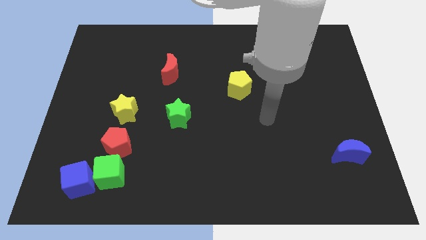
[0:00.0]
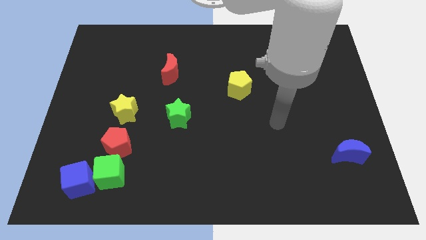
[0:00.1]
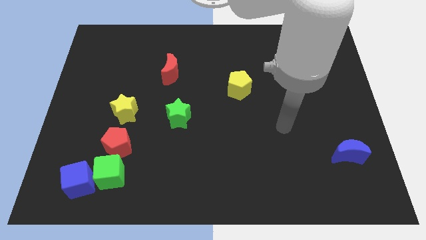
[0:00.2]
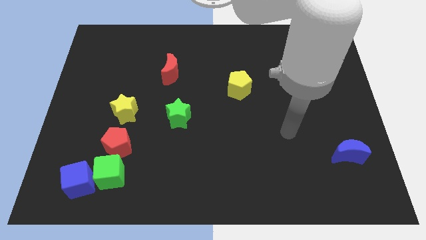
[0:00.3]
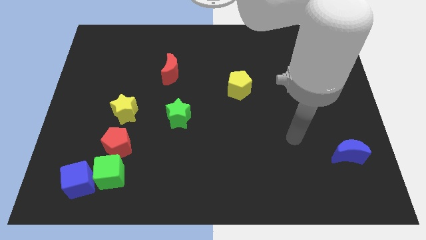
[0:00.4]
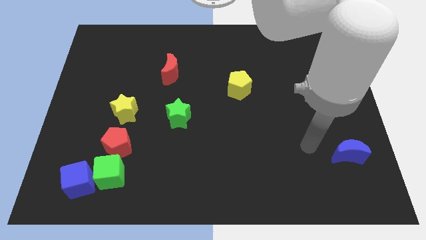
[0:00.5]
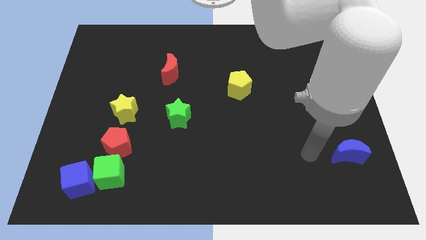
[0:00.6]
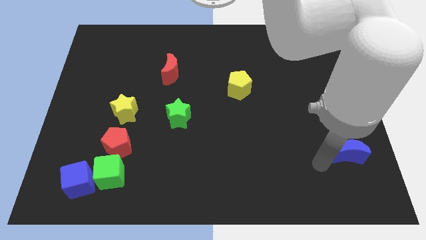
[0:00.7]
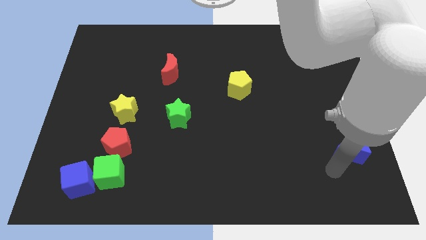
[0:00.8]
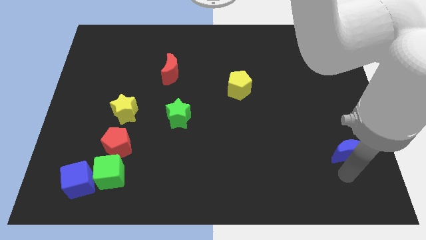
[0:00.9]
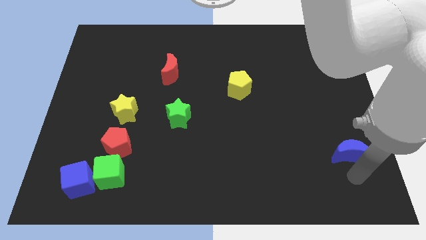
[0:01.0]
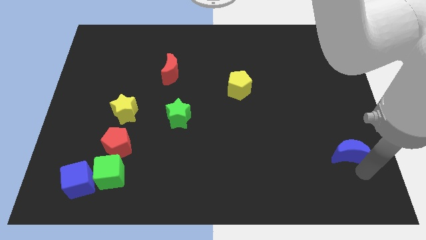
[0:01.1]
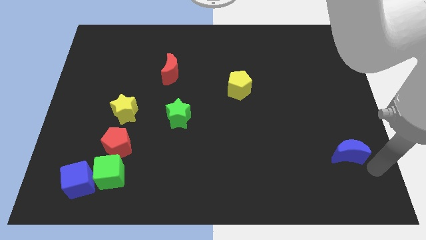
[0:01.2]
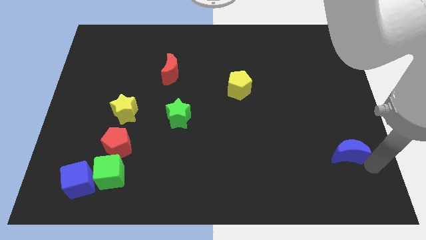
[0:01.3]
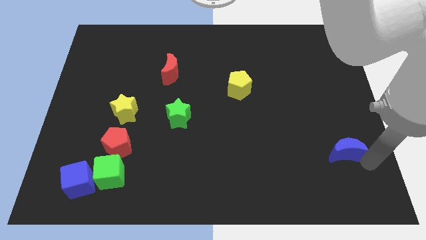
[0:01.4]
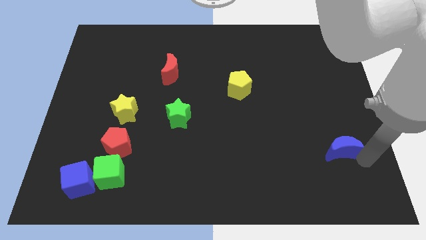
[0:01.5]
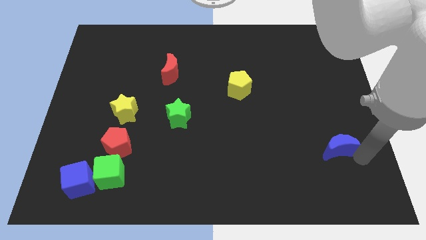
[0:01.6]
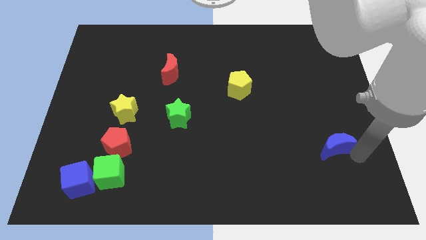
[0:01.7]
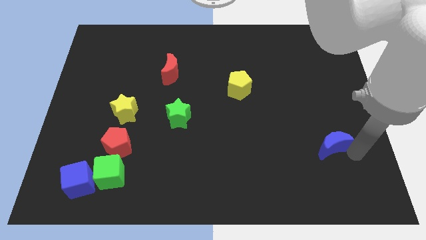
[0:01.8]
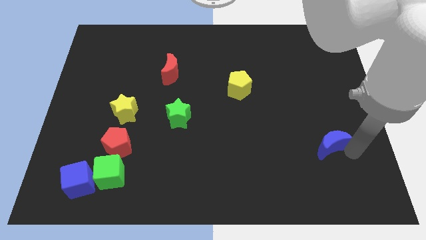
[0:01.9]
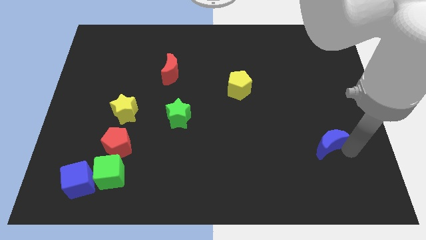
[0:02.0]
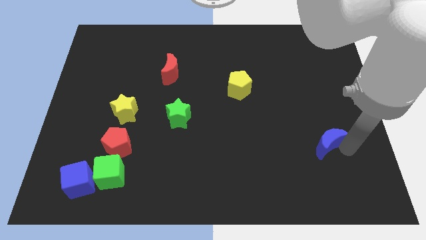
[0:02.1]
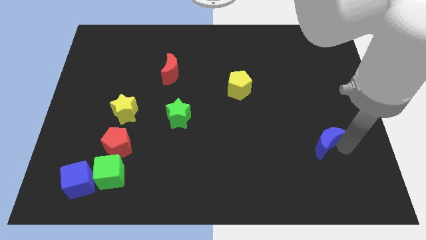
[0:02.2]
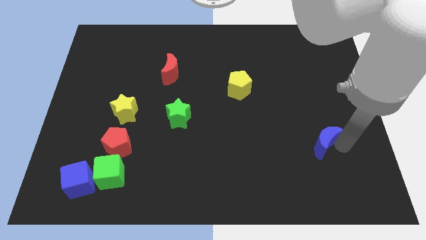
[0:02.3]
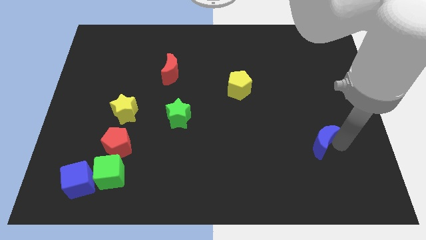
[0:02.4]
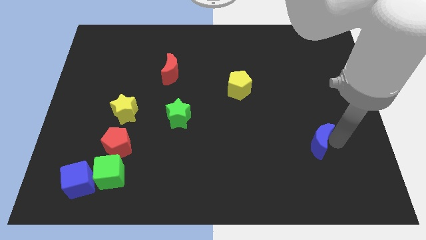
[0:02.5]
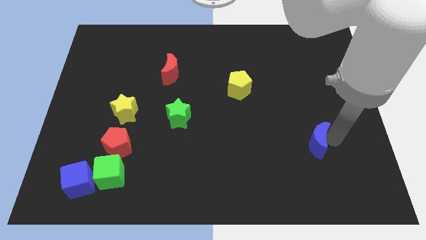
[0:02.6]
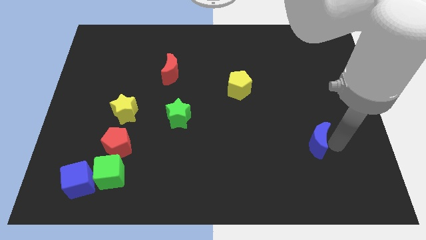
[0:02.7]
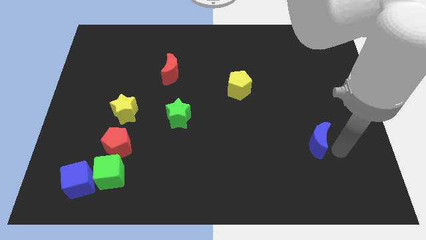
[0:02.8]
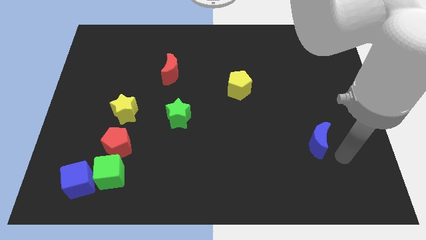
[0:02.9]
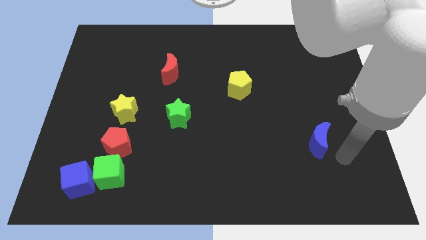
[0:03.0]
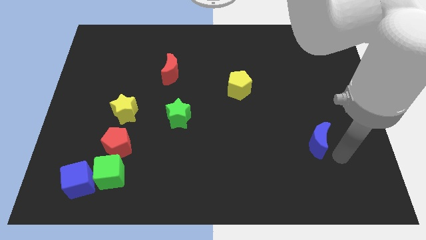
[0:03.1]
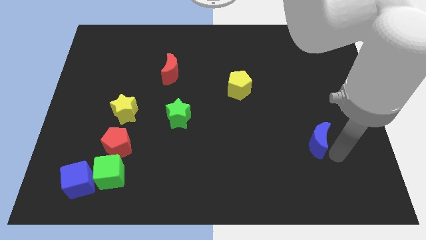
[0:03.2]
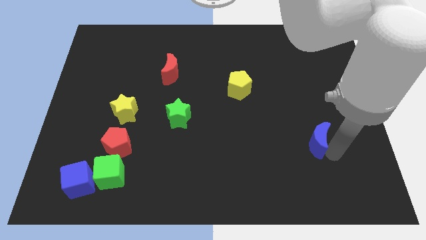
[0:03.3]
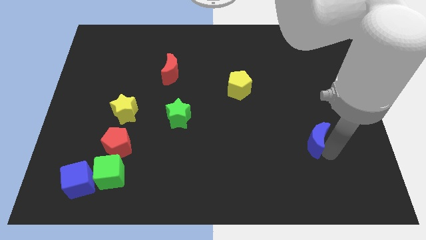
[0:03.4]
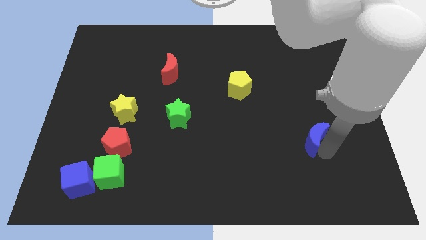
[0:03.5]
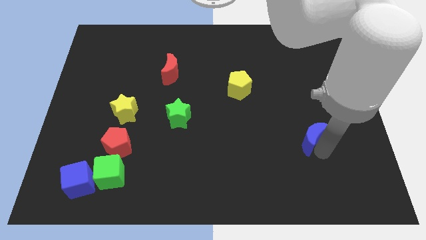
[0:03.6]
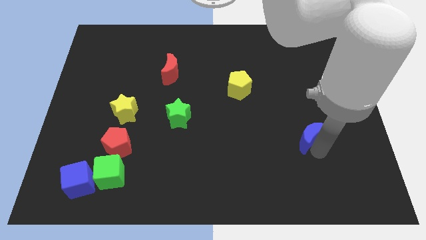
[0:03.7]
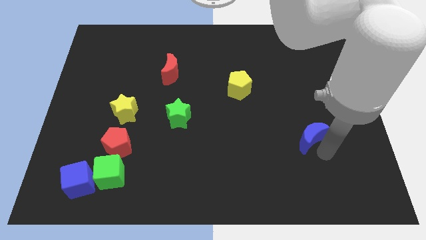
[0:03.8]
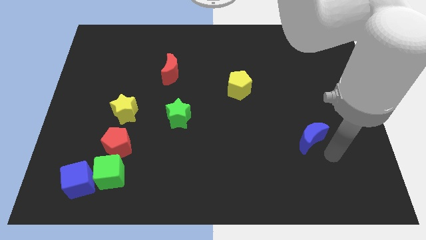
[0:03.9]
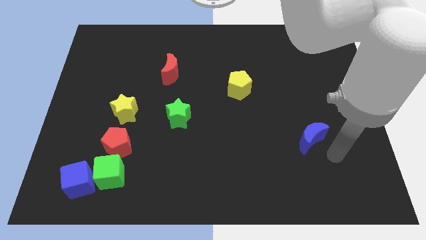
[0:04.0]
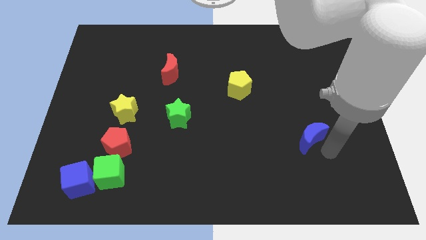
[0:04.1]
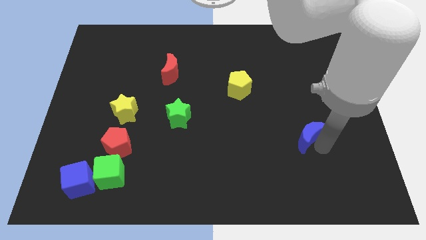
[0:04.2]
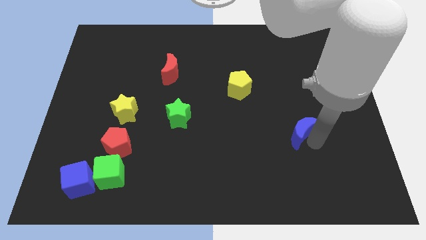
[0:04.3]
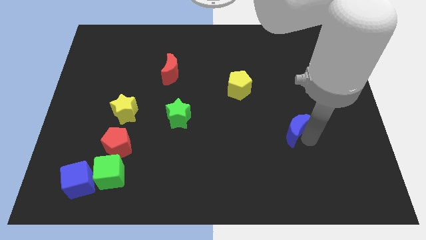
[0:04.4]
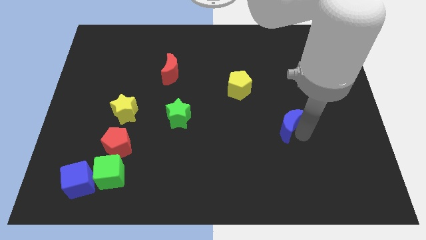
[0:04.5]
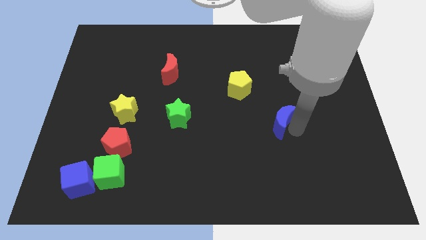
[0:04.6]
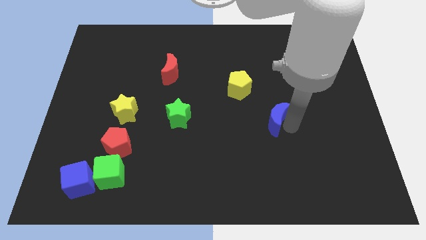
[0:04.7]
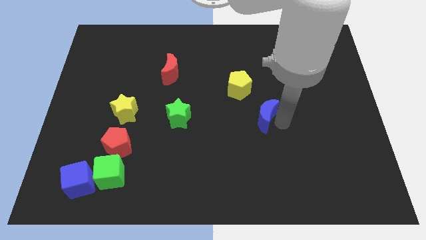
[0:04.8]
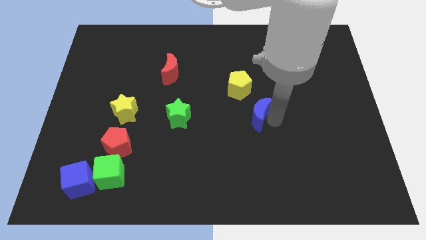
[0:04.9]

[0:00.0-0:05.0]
put the blue moon to the middle of the board
